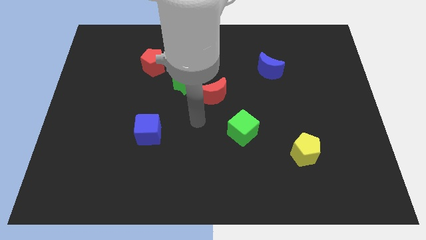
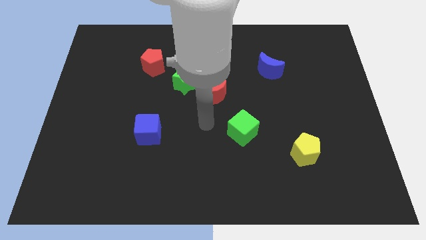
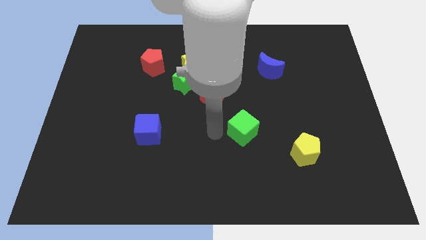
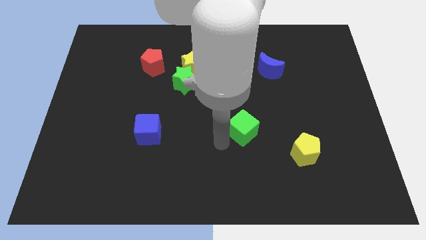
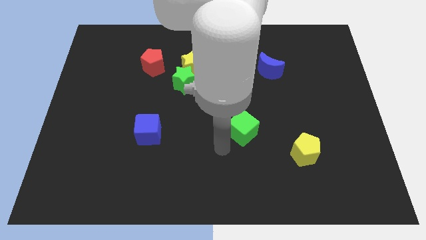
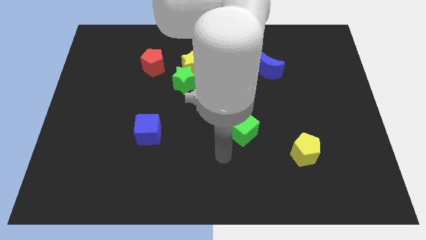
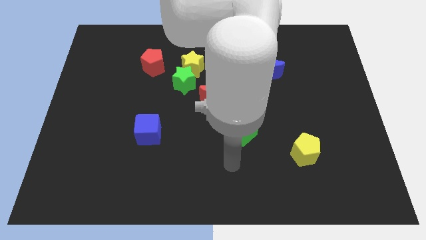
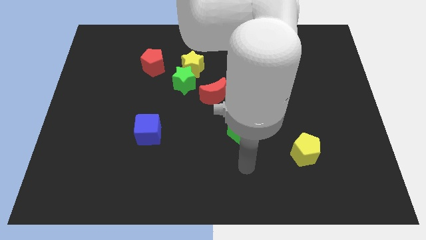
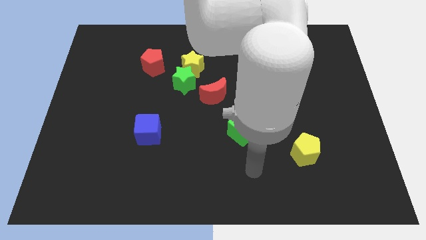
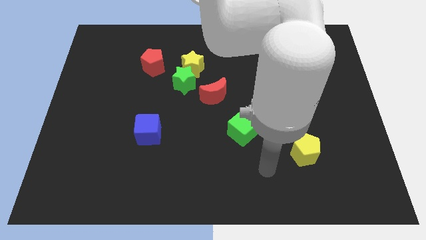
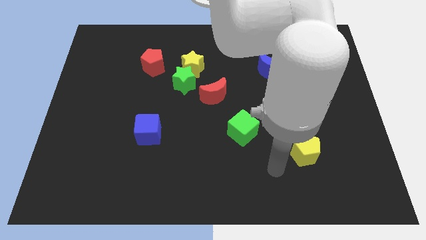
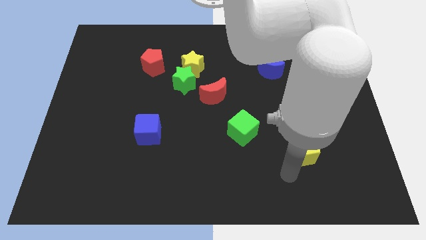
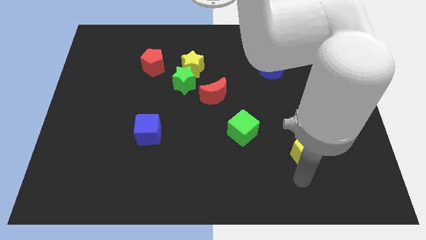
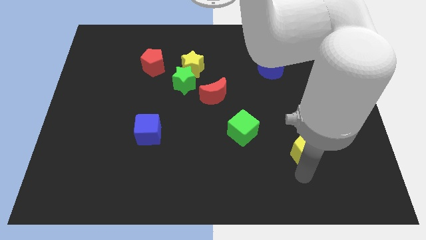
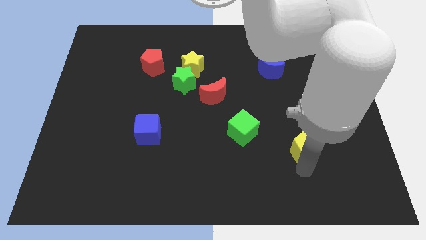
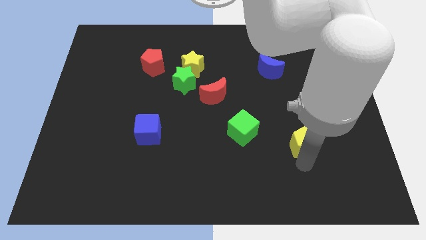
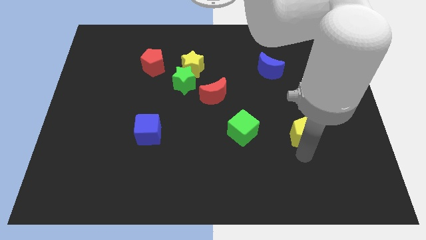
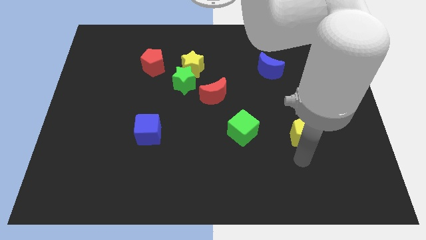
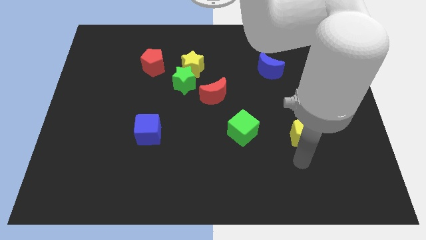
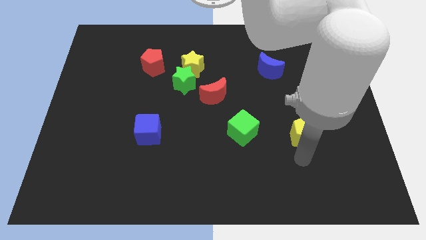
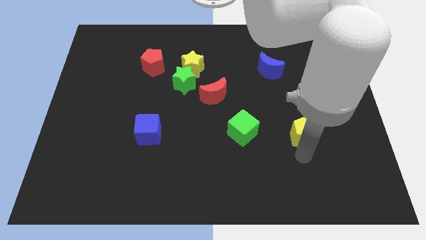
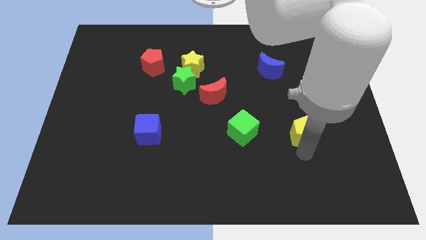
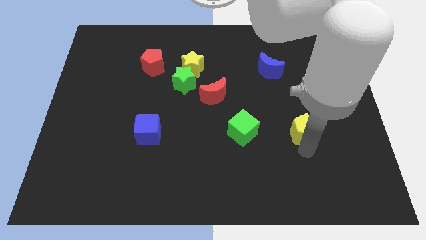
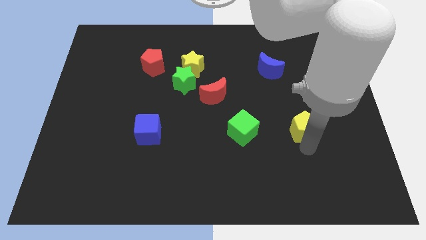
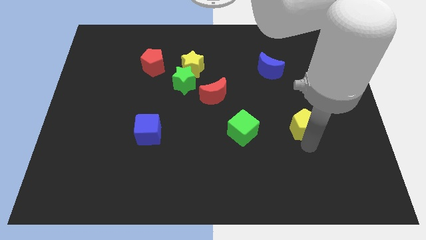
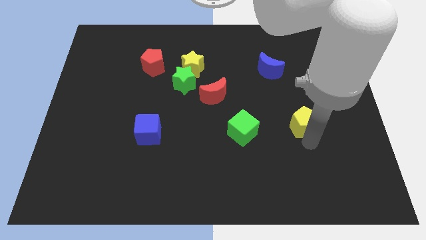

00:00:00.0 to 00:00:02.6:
slightly move the yellow pentagon up

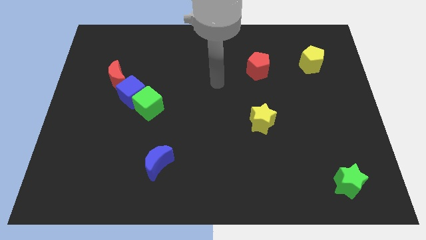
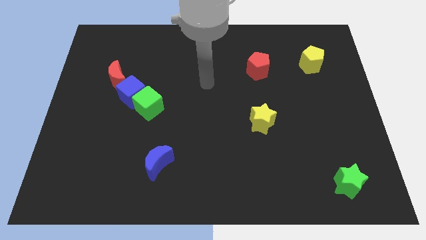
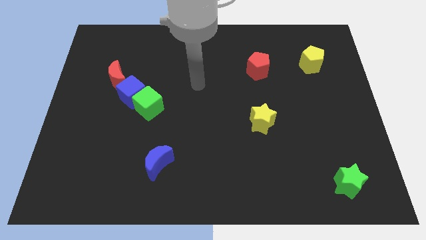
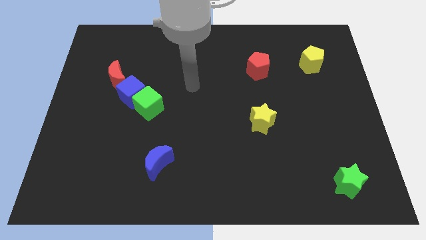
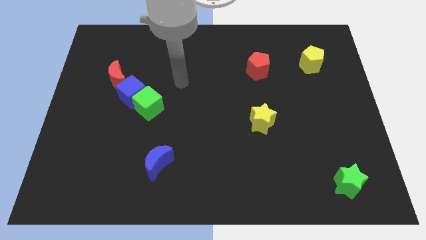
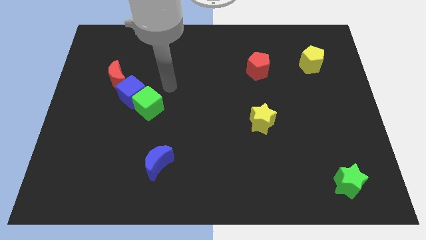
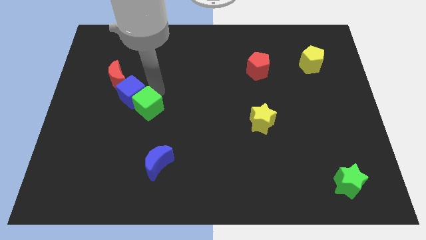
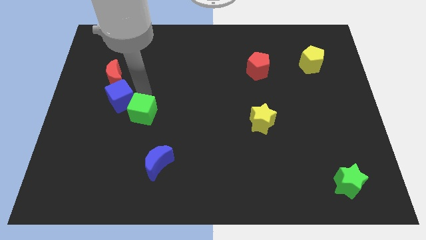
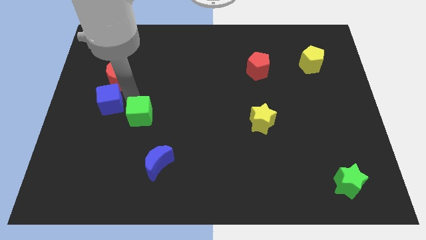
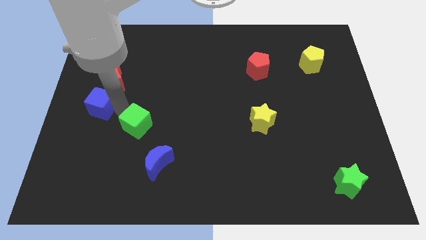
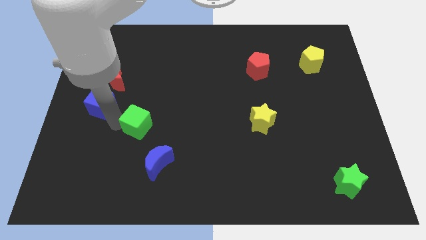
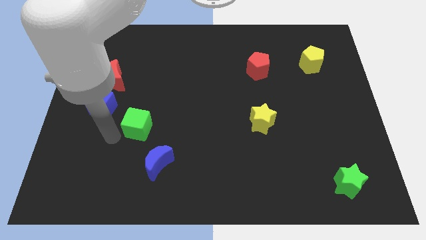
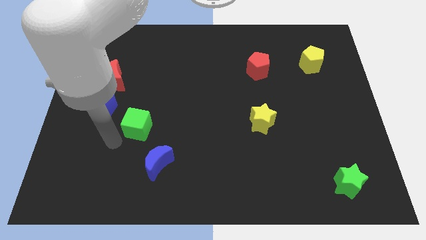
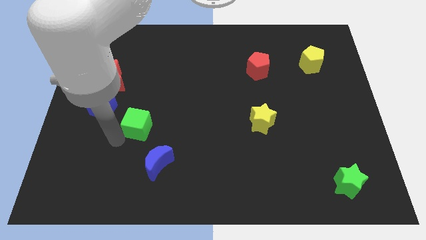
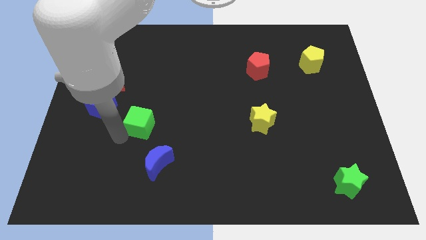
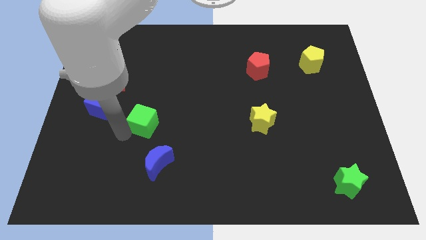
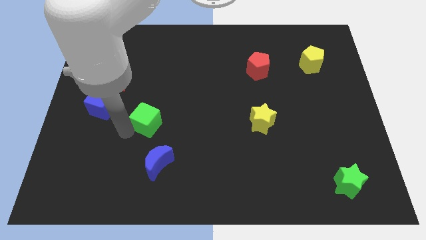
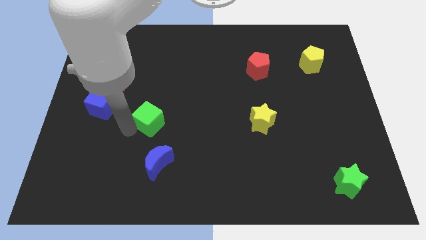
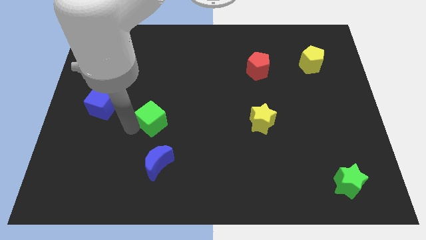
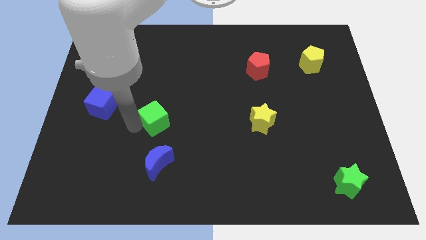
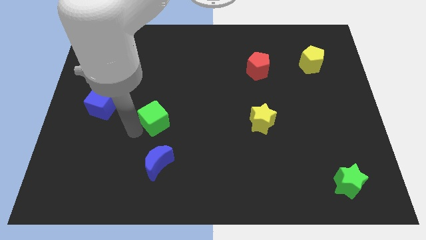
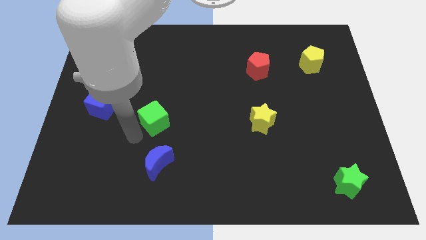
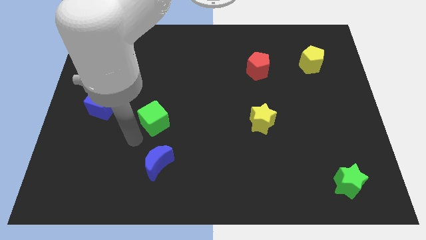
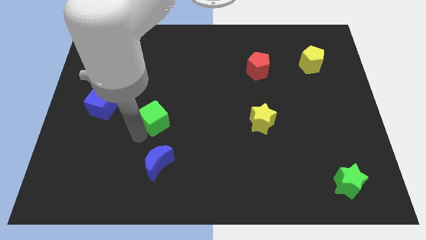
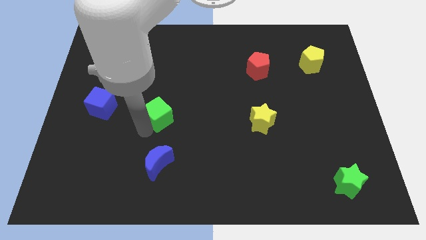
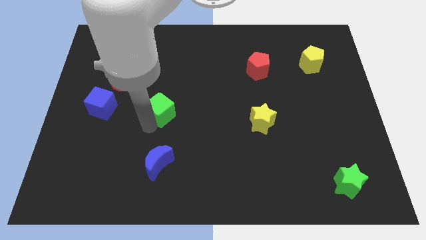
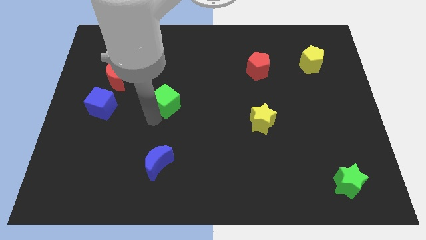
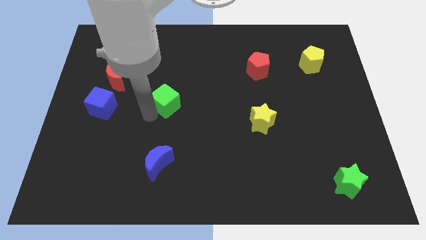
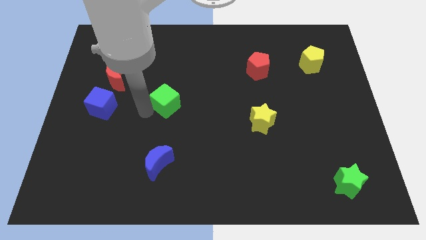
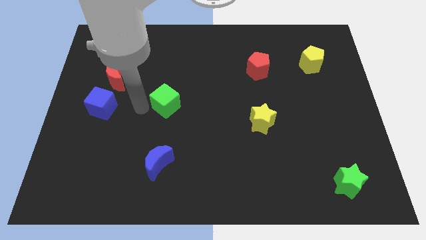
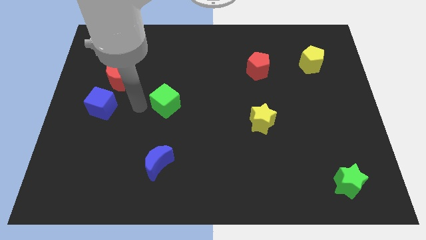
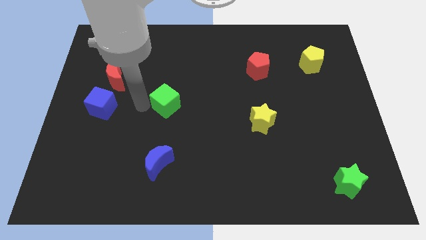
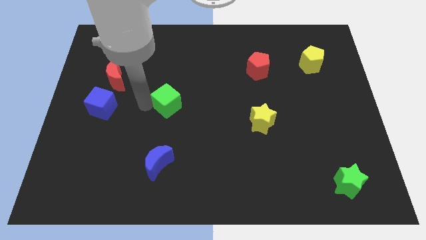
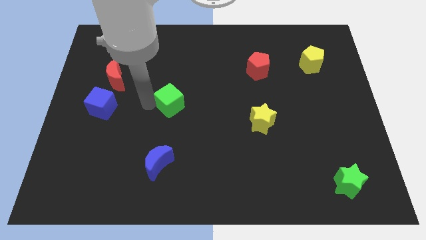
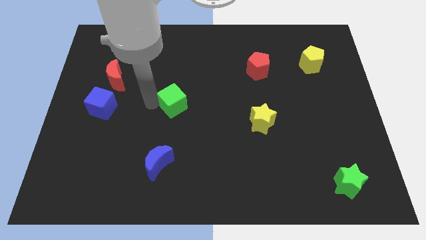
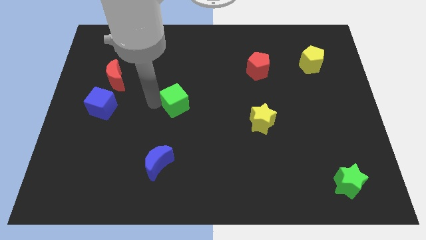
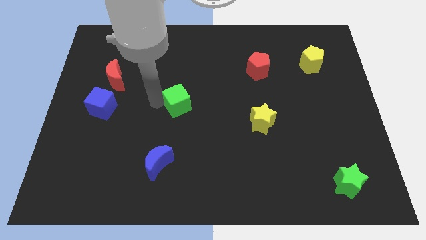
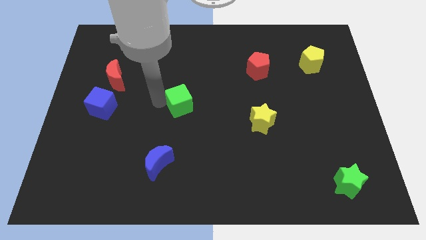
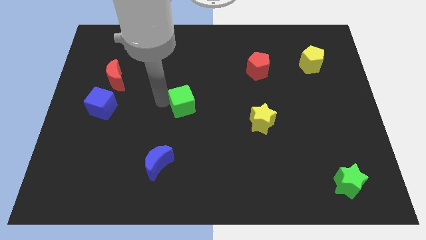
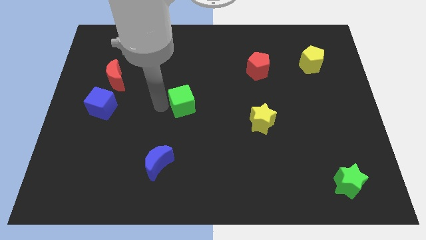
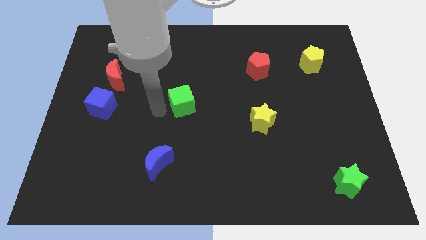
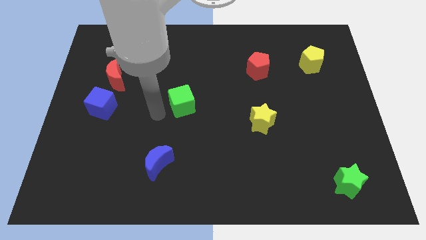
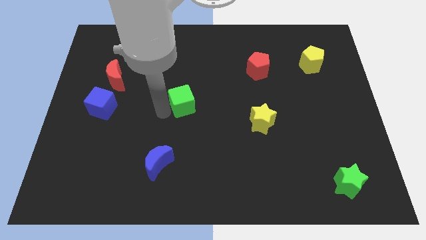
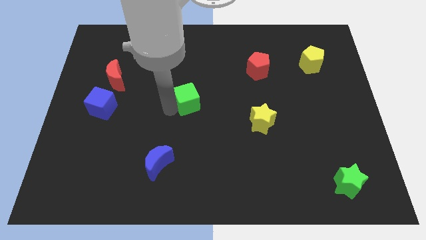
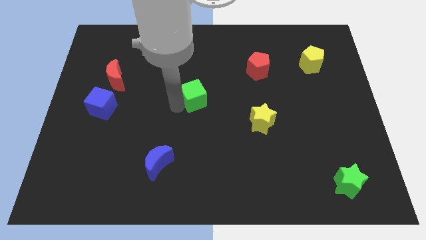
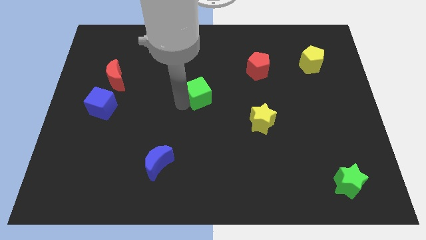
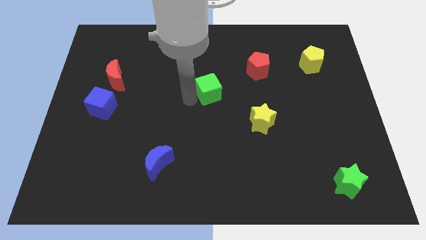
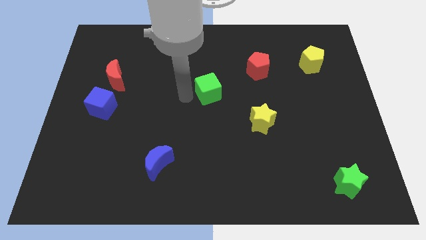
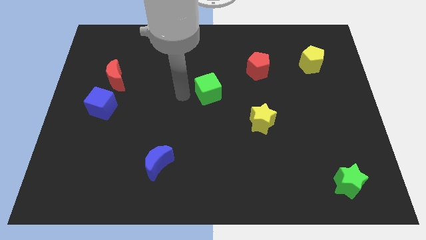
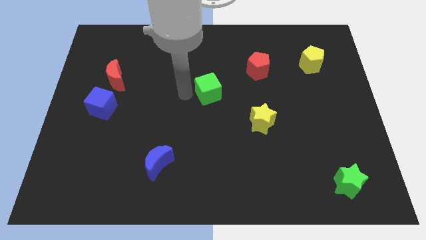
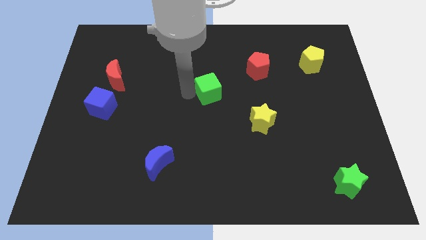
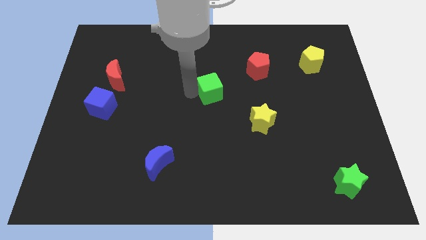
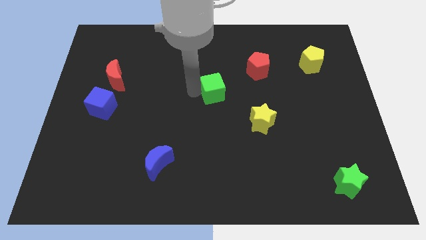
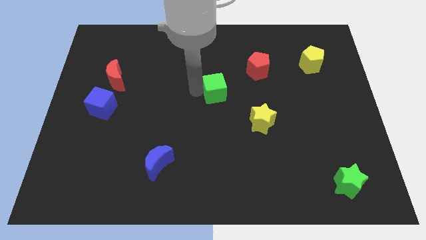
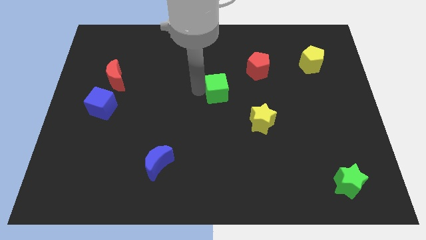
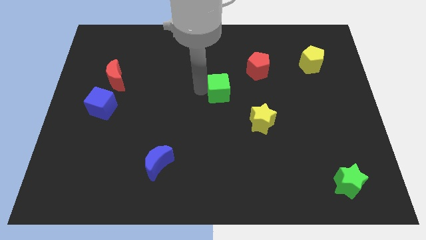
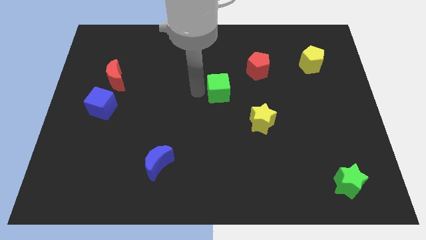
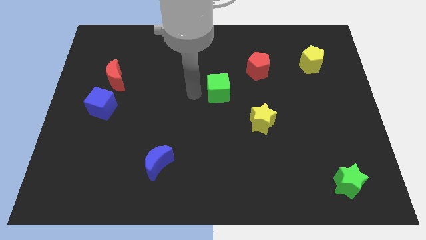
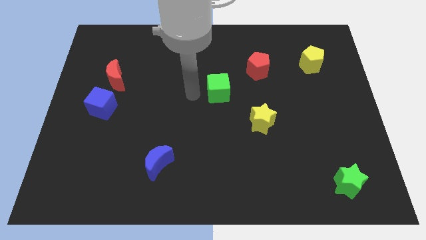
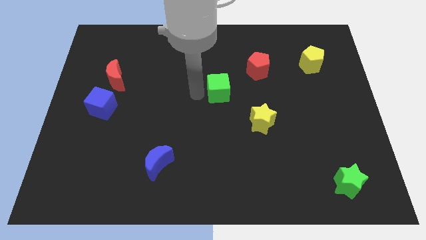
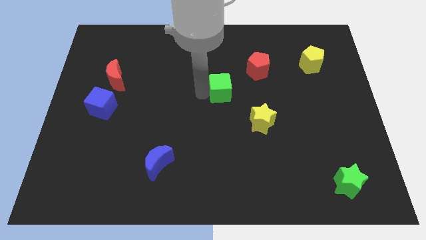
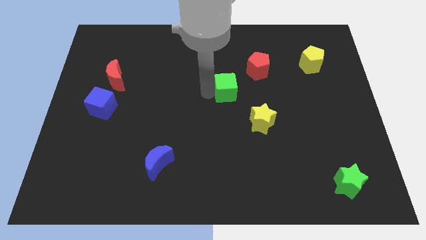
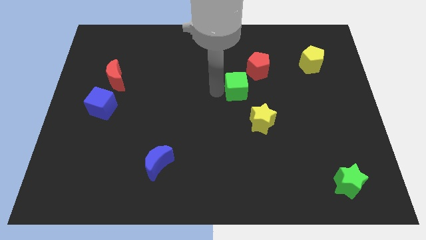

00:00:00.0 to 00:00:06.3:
move the green cube to the right
